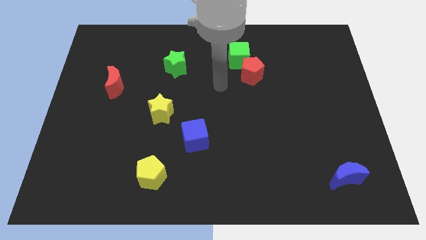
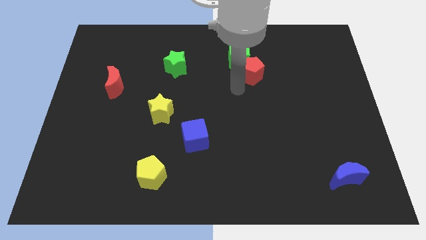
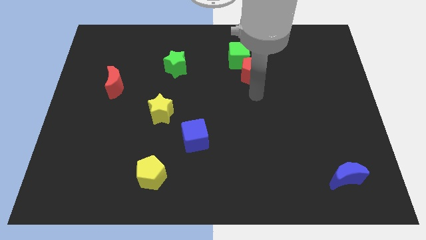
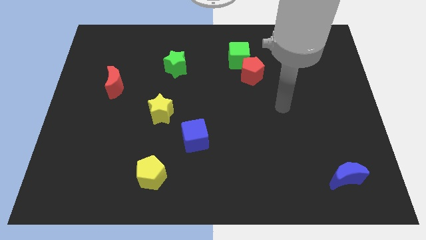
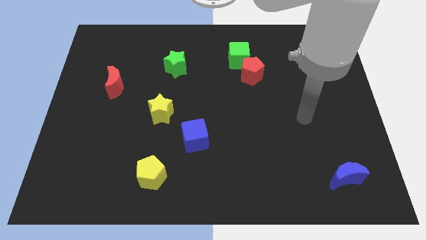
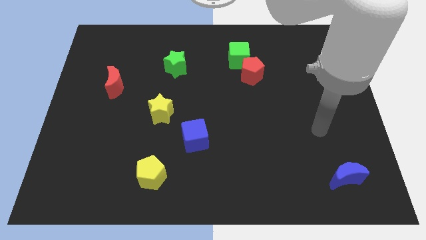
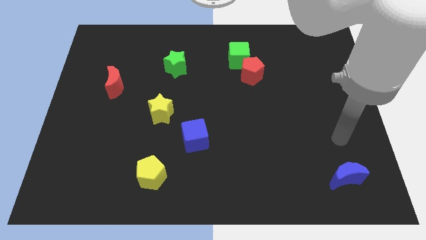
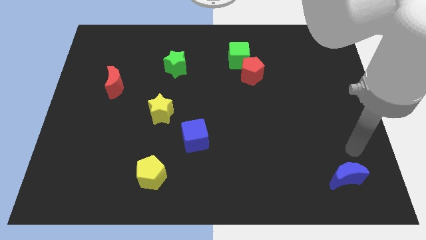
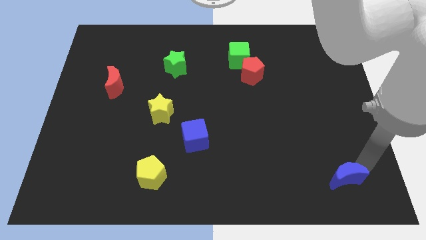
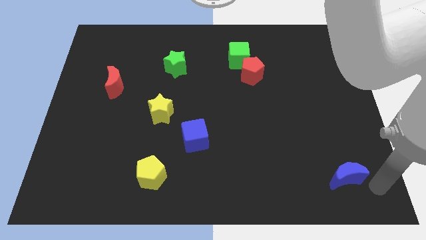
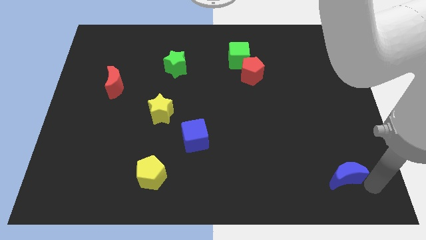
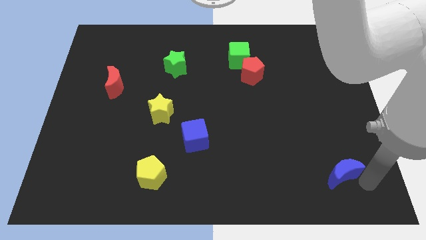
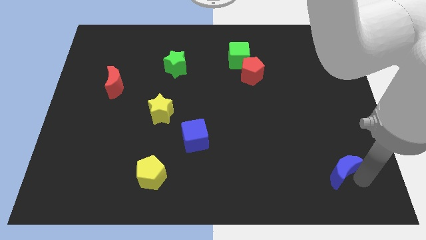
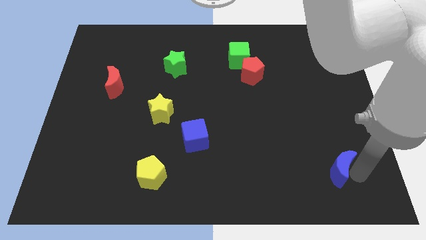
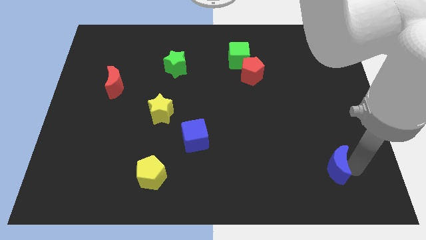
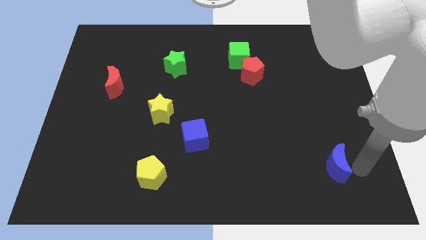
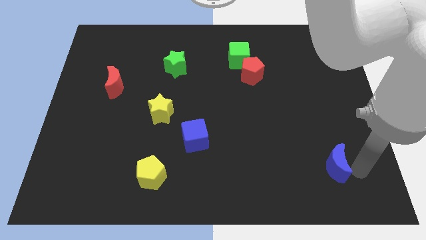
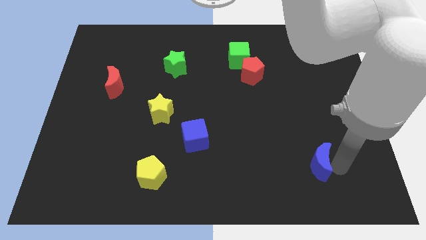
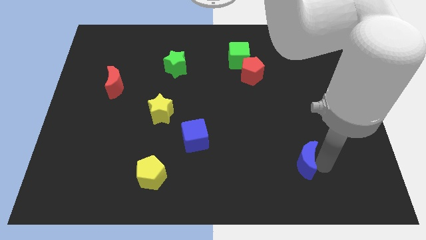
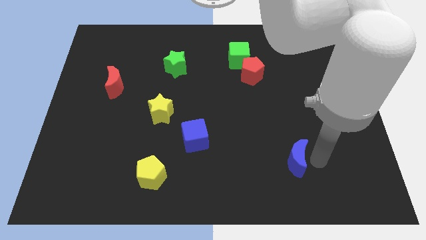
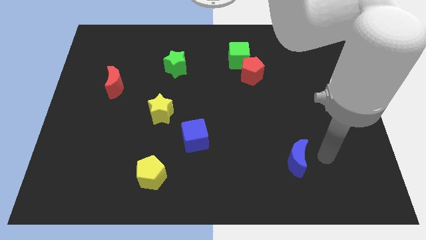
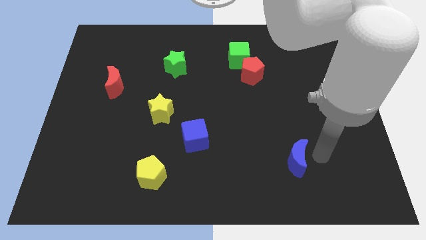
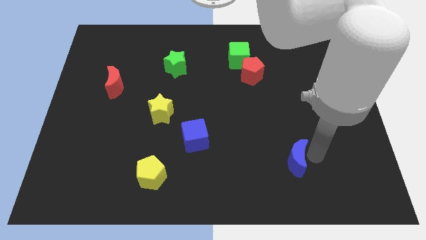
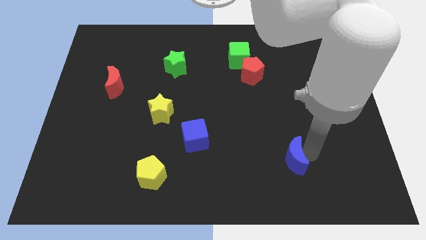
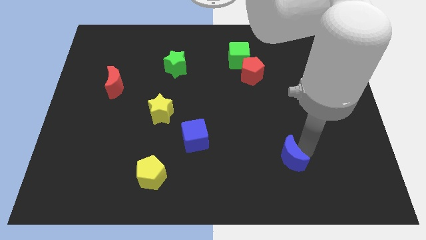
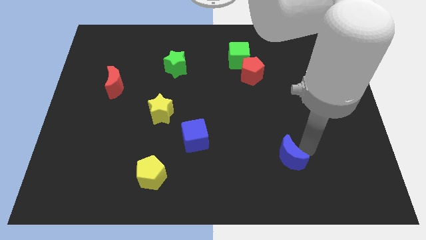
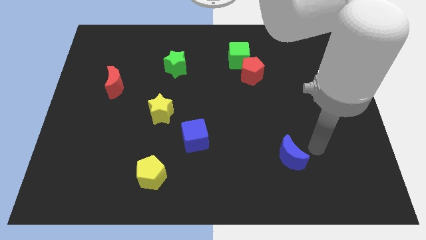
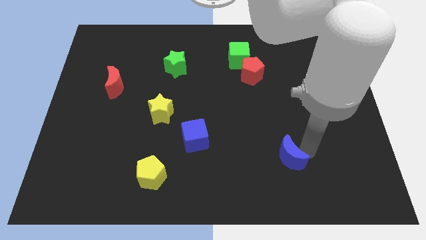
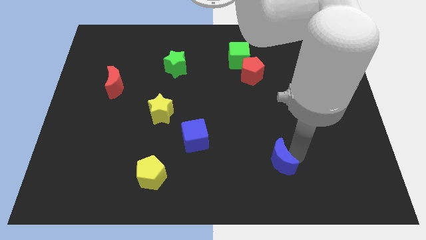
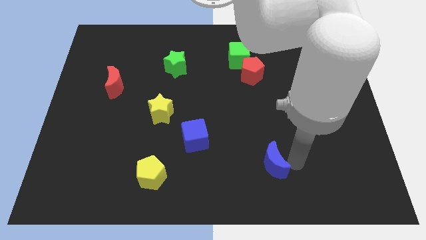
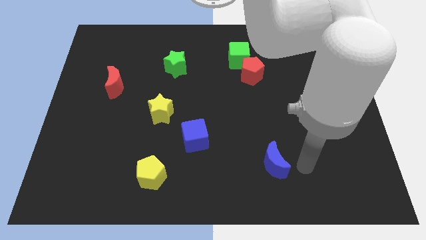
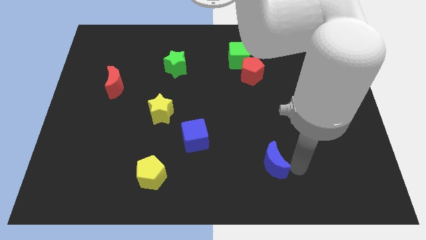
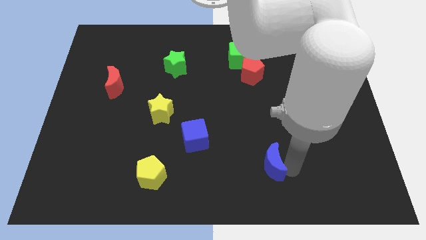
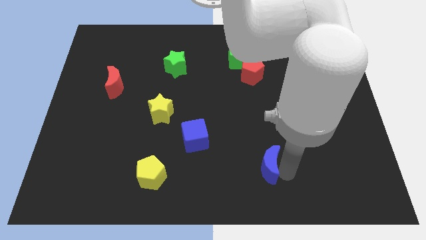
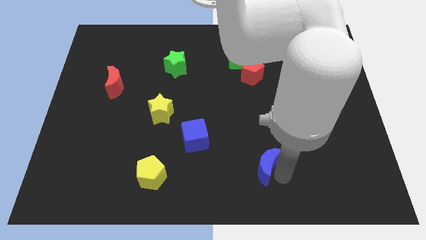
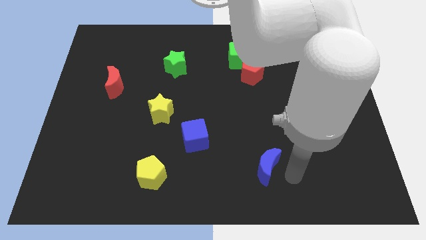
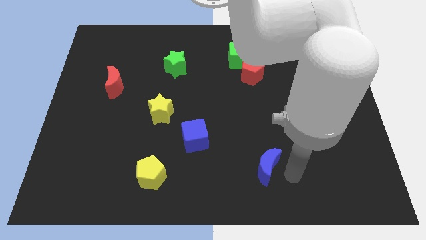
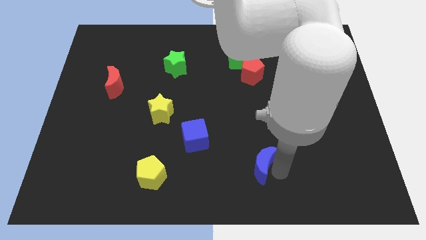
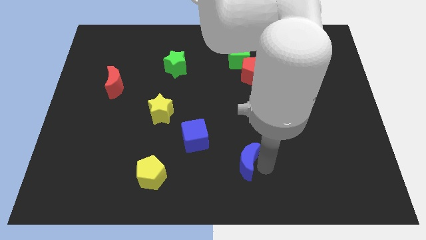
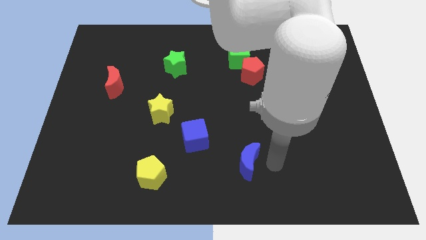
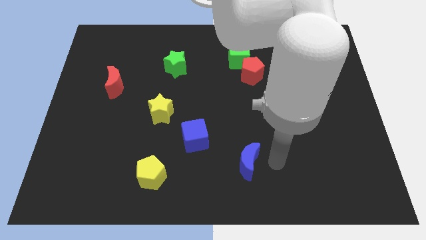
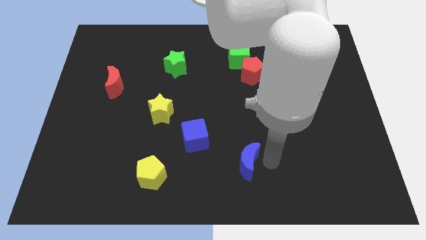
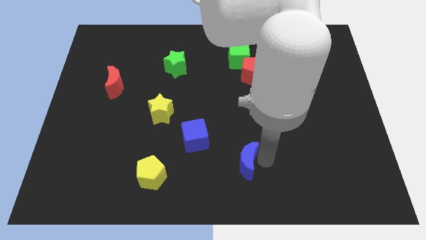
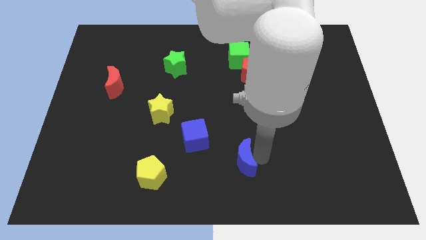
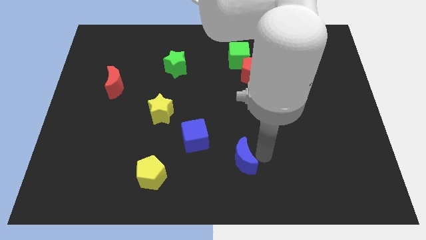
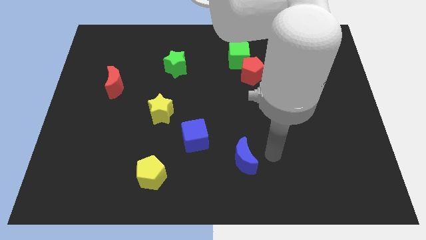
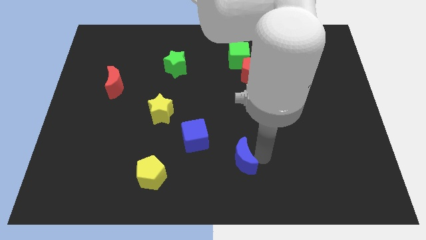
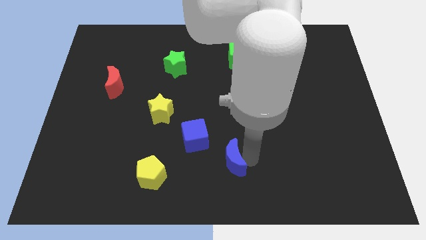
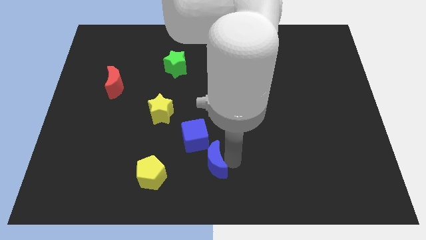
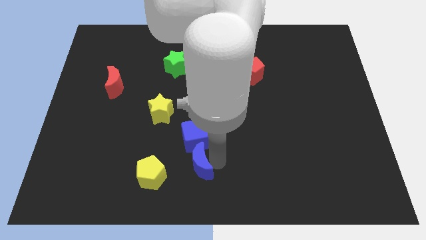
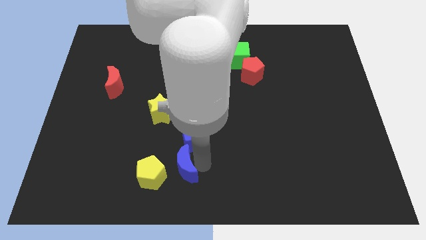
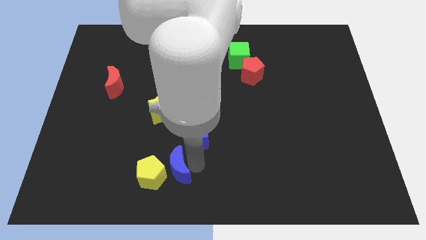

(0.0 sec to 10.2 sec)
push the blue moon next to the yellow pentagon

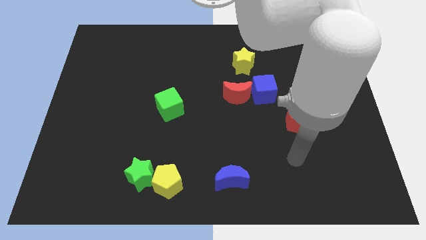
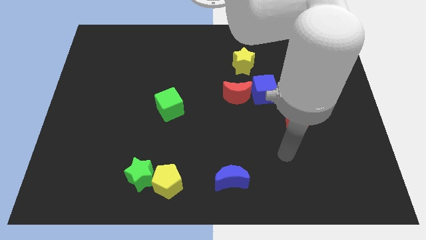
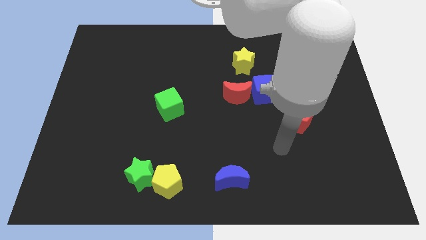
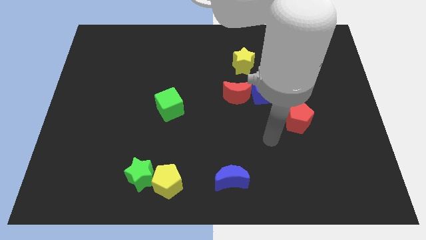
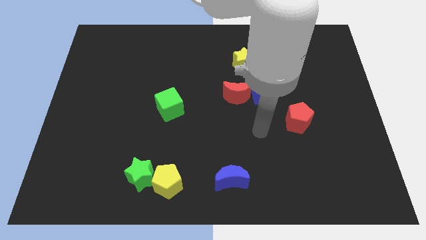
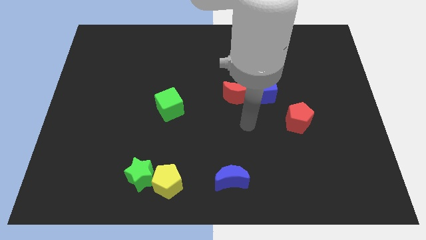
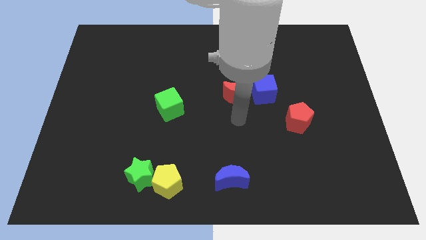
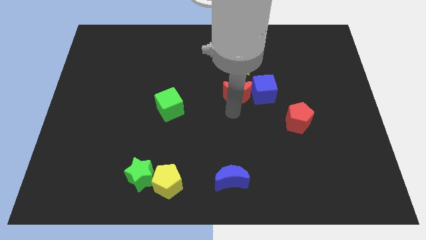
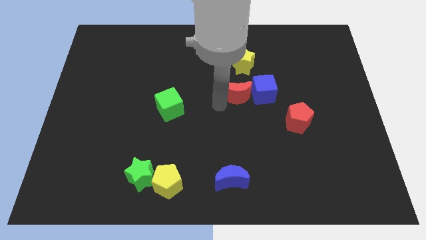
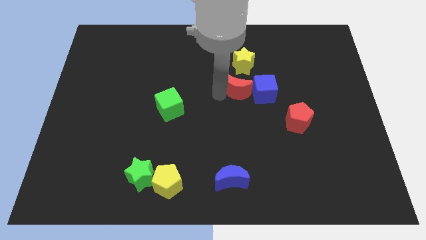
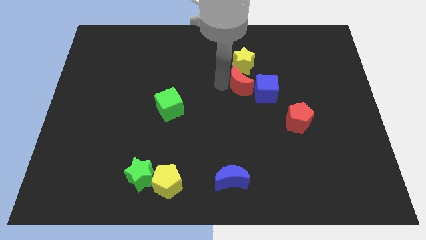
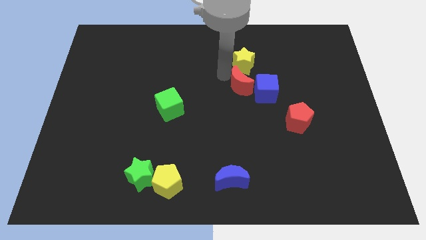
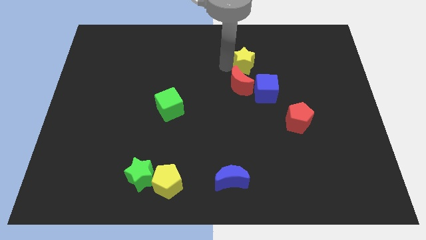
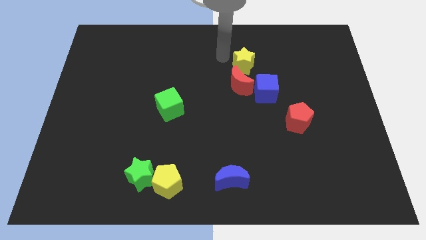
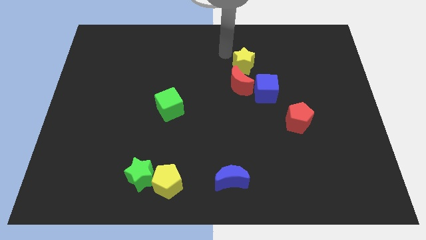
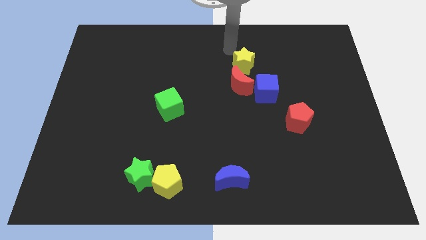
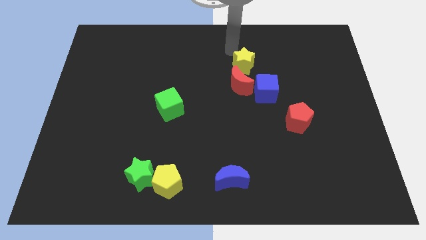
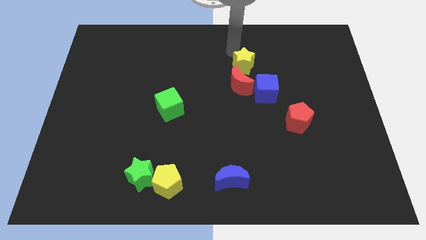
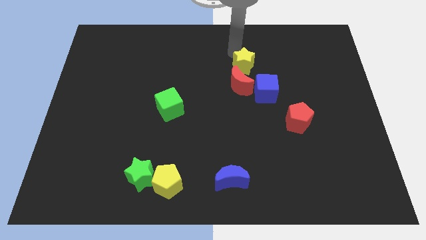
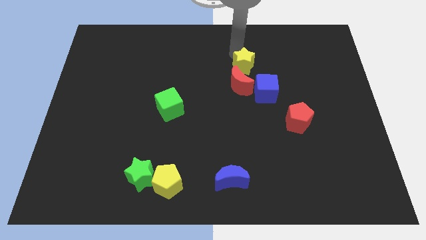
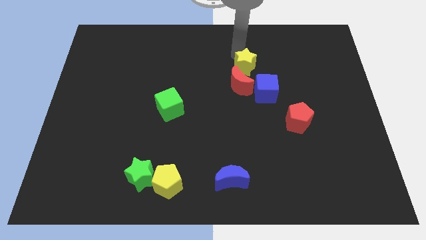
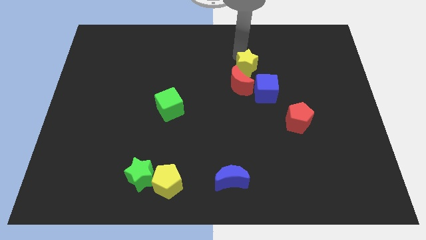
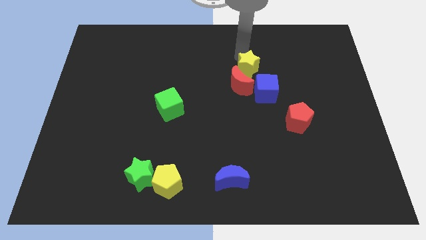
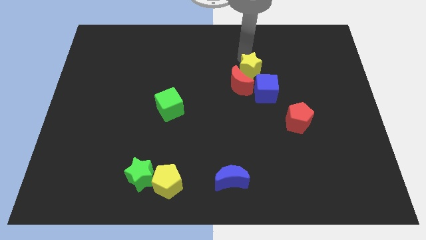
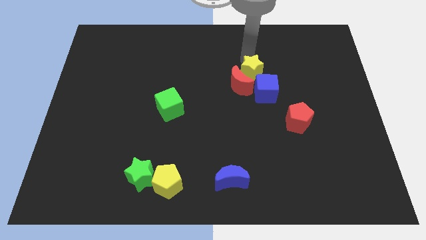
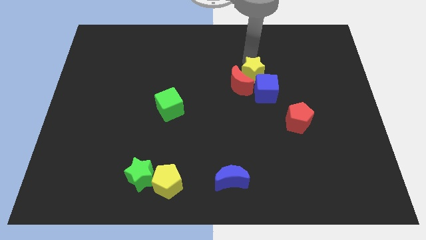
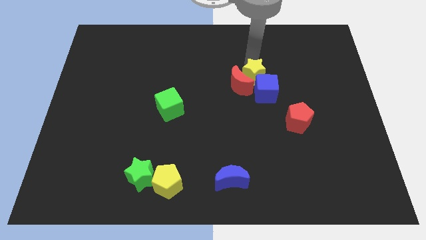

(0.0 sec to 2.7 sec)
move the yellow star next to the blue cube
